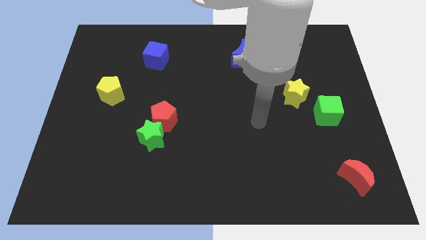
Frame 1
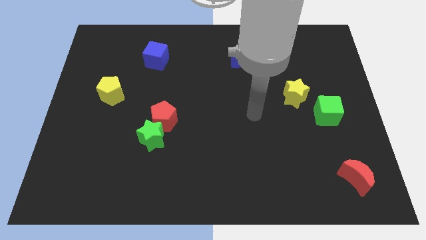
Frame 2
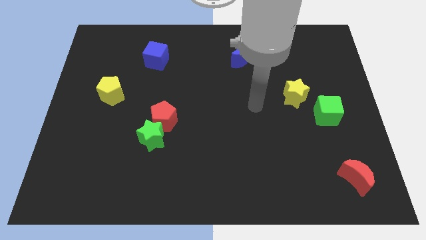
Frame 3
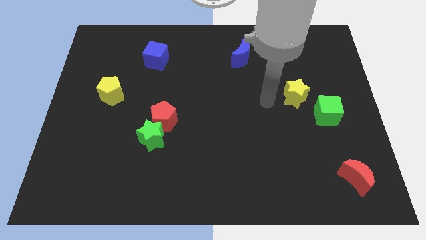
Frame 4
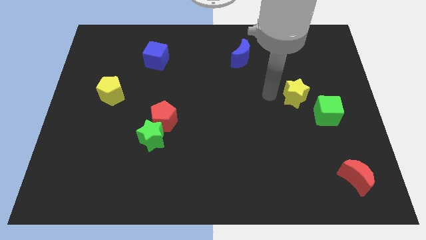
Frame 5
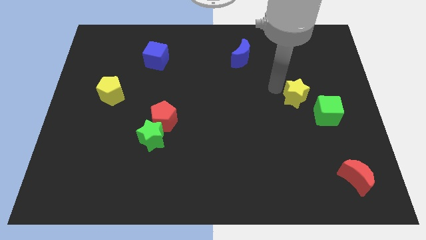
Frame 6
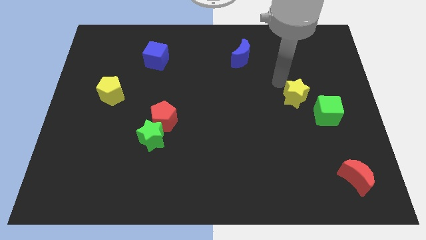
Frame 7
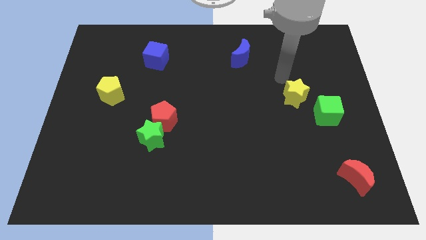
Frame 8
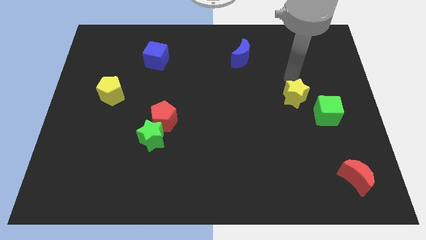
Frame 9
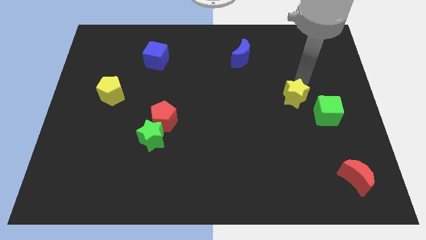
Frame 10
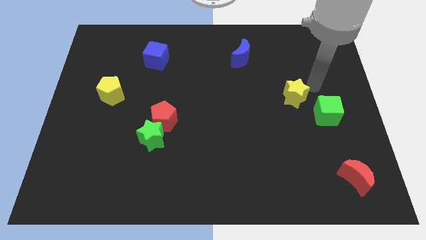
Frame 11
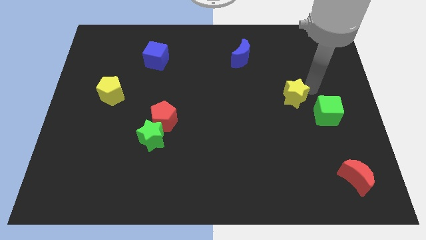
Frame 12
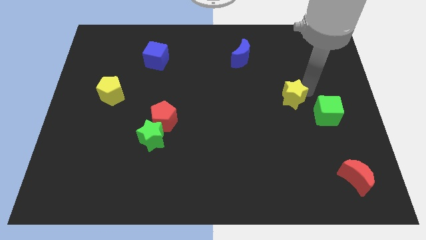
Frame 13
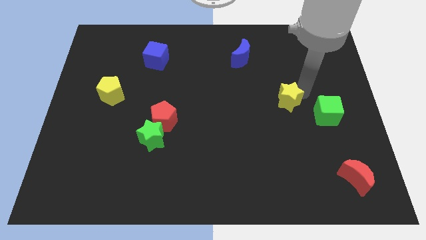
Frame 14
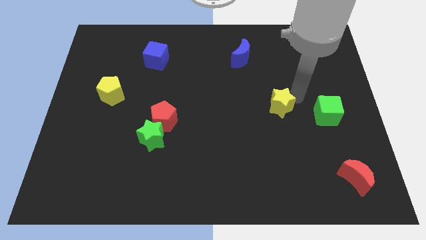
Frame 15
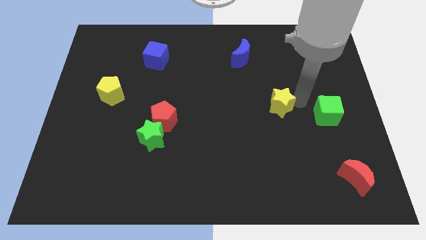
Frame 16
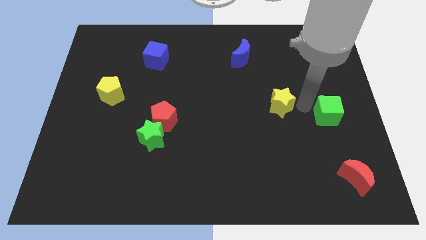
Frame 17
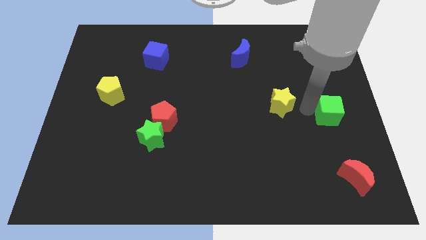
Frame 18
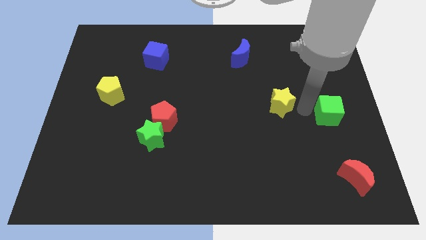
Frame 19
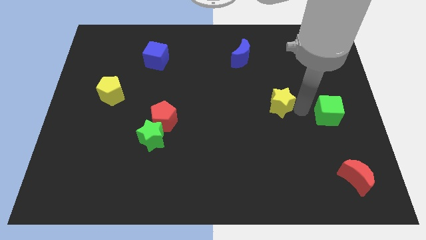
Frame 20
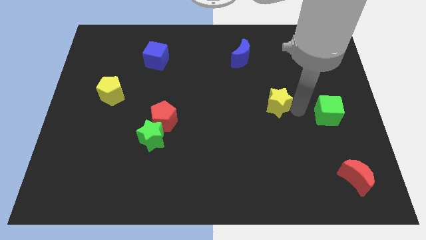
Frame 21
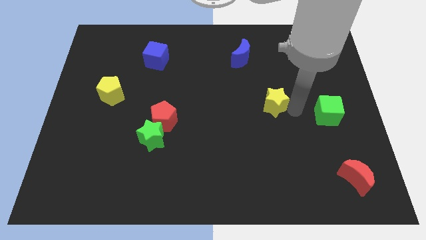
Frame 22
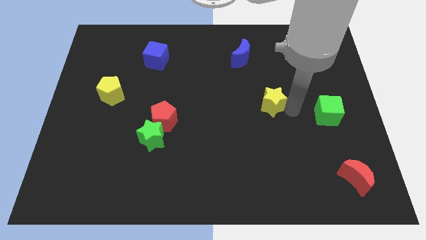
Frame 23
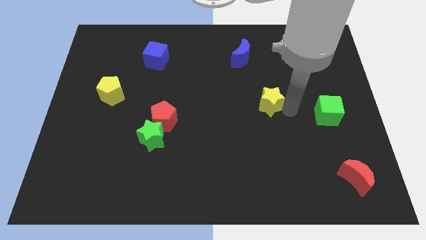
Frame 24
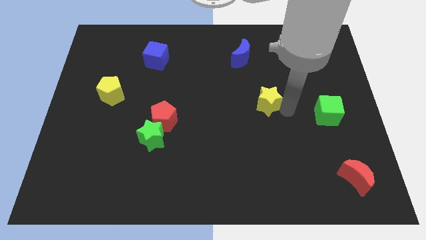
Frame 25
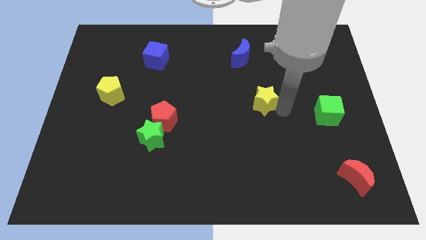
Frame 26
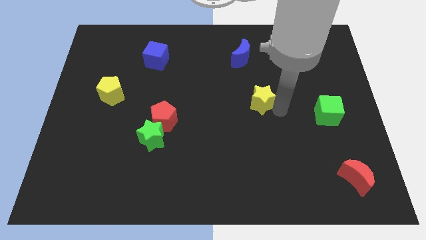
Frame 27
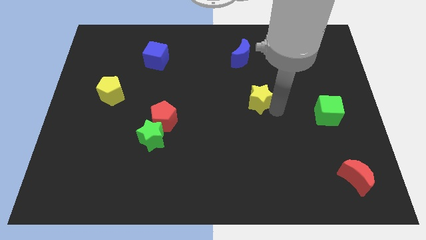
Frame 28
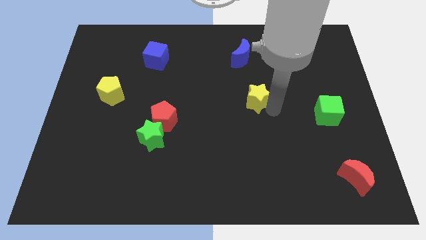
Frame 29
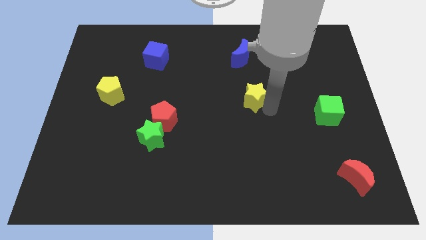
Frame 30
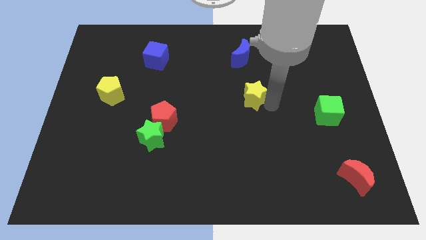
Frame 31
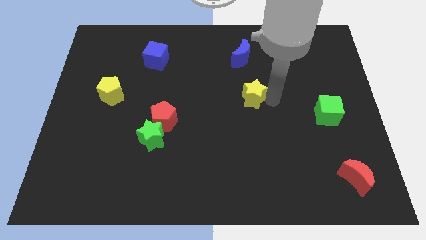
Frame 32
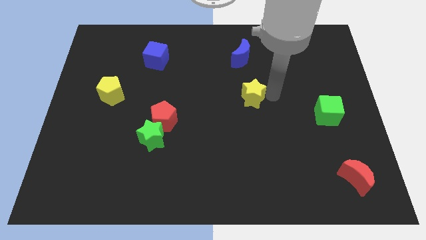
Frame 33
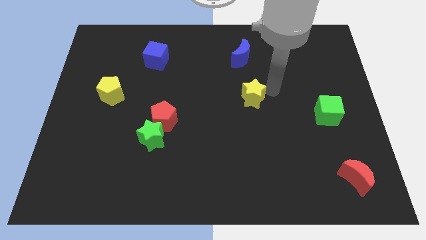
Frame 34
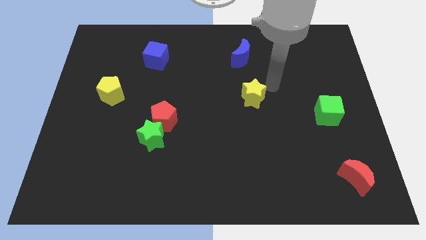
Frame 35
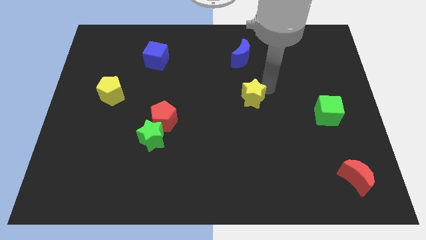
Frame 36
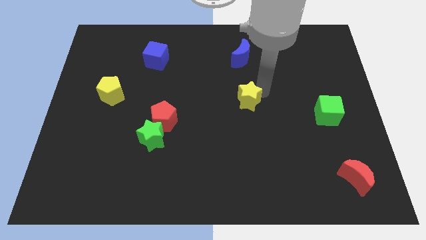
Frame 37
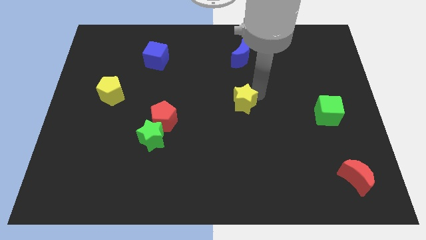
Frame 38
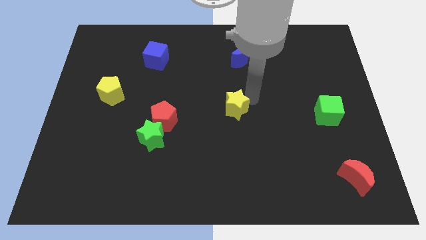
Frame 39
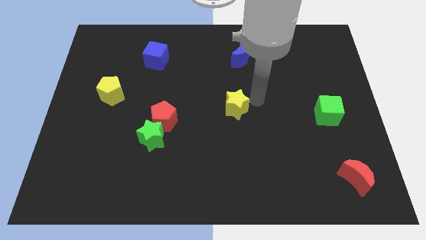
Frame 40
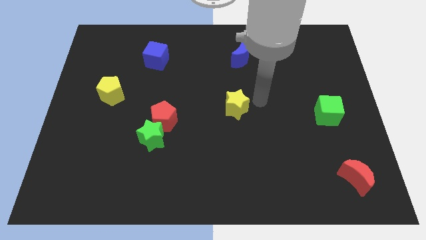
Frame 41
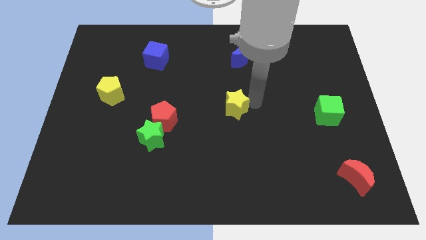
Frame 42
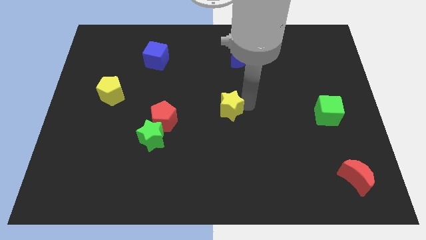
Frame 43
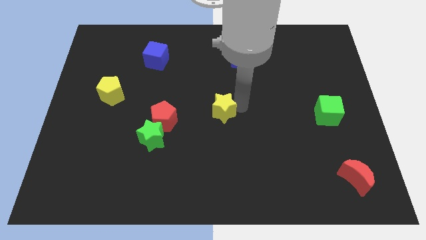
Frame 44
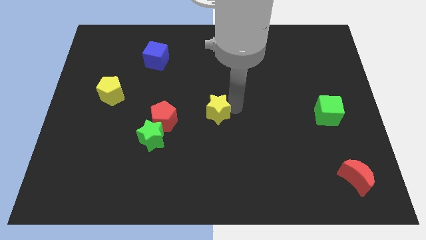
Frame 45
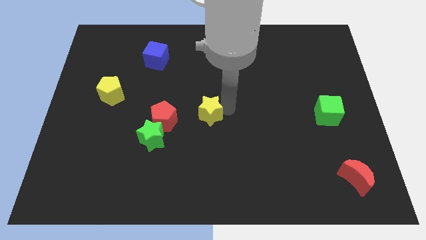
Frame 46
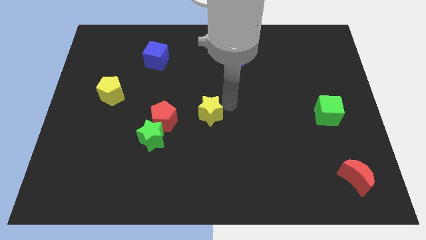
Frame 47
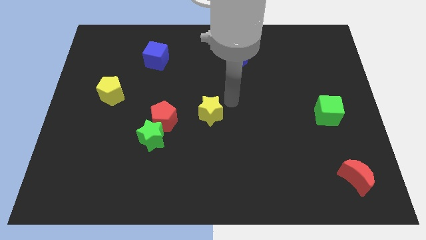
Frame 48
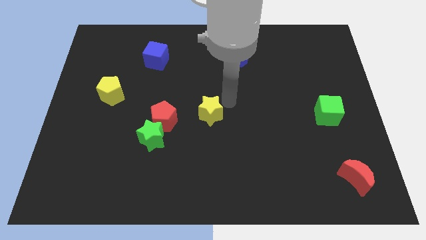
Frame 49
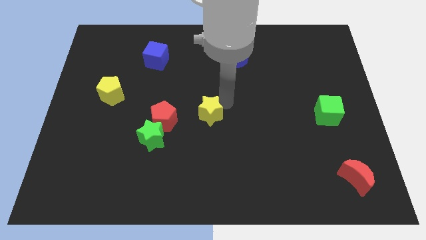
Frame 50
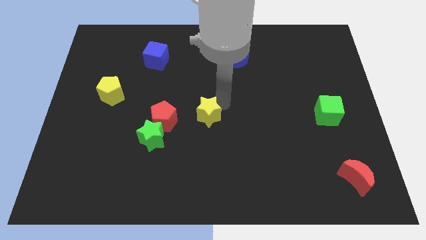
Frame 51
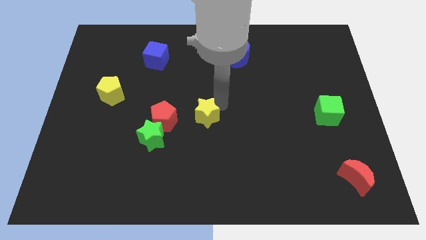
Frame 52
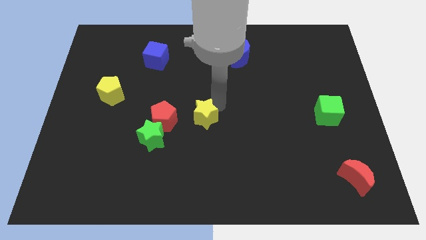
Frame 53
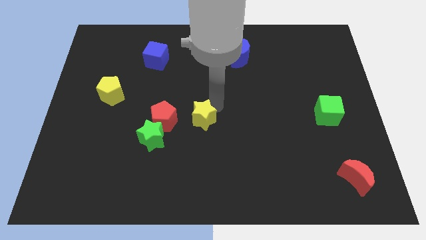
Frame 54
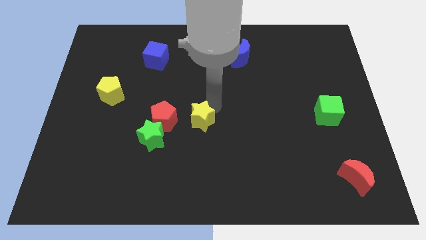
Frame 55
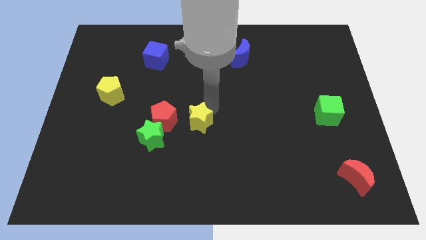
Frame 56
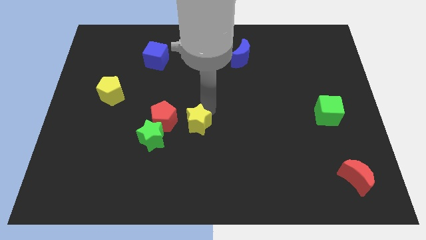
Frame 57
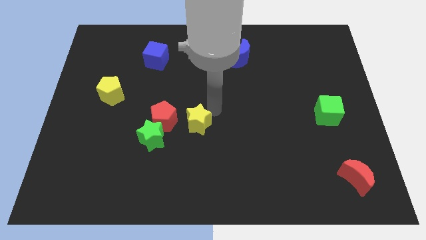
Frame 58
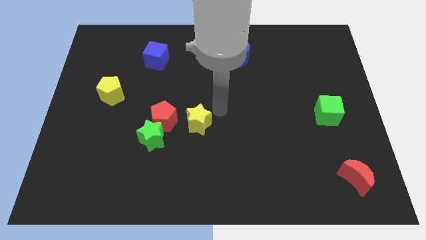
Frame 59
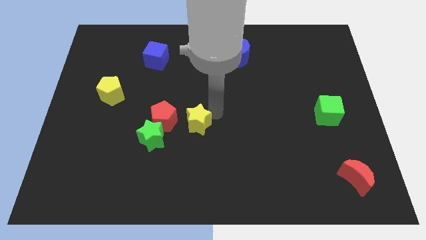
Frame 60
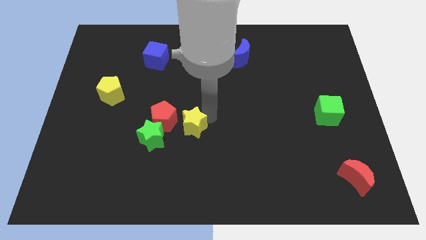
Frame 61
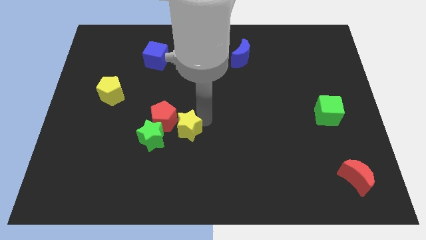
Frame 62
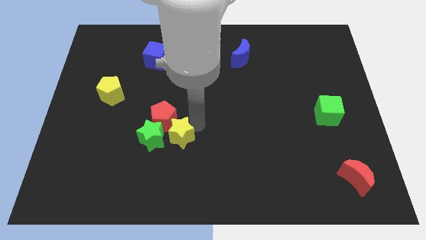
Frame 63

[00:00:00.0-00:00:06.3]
slide the yellow star towards the green star

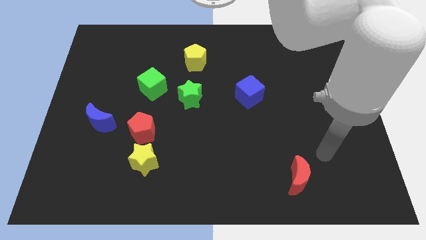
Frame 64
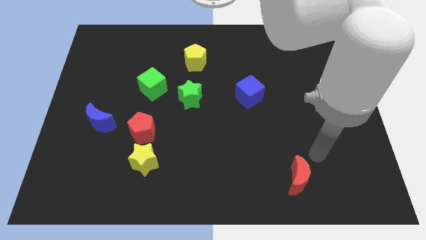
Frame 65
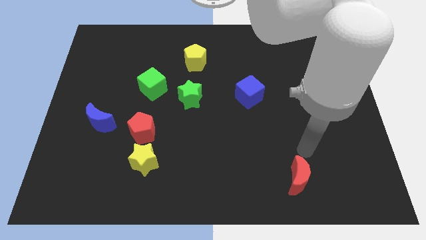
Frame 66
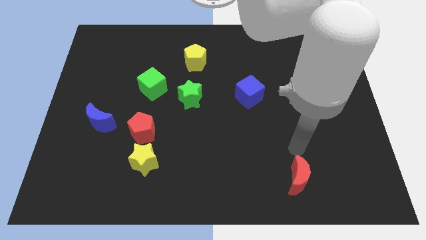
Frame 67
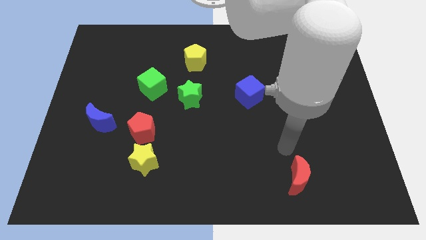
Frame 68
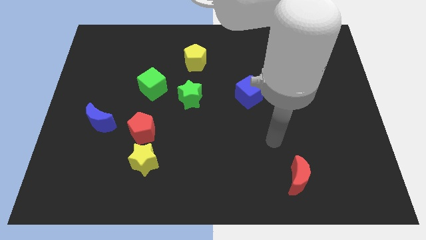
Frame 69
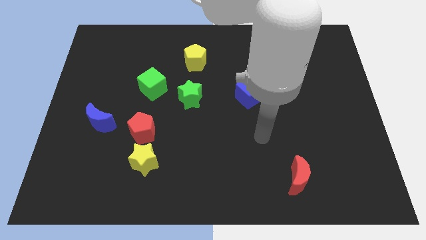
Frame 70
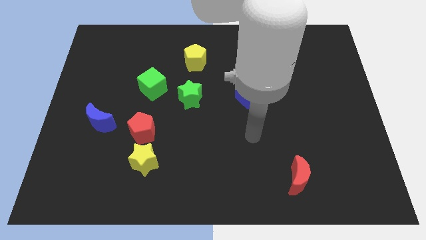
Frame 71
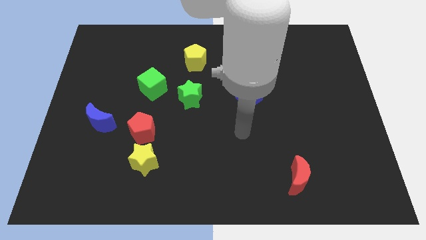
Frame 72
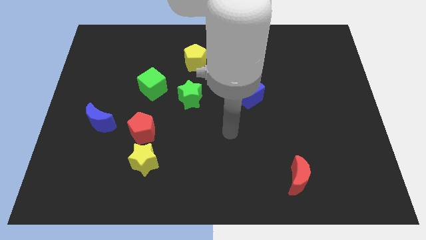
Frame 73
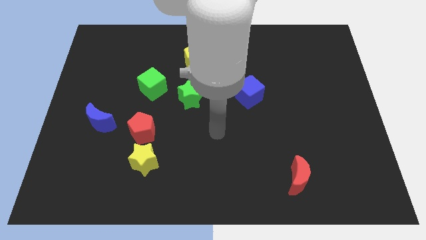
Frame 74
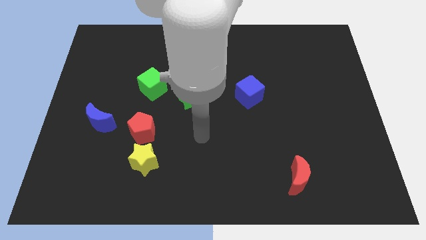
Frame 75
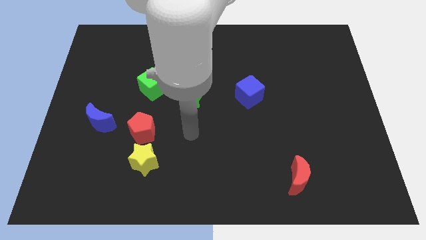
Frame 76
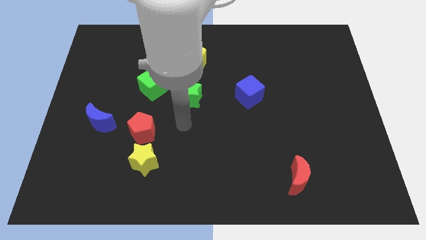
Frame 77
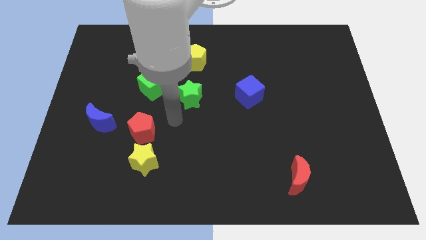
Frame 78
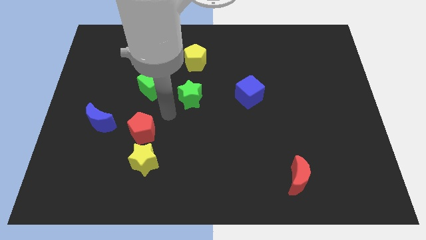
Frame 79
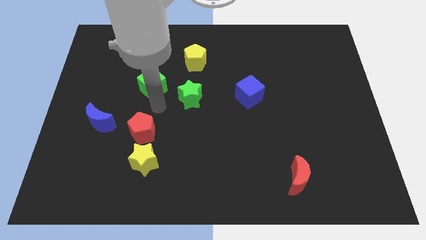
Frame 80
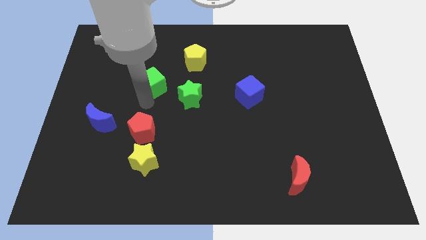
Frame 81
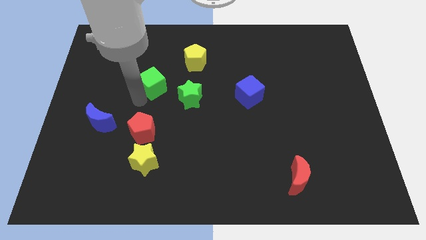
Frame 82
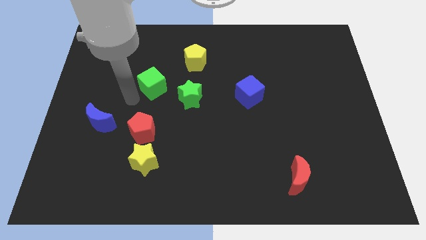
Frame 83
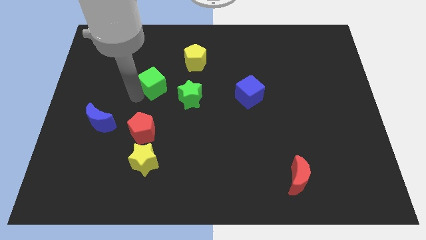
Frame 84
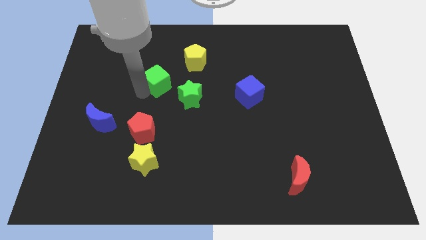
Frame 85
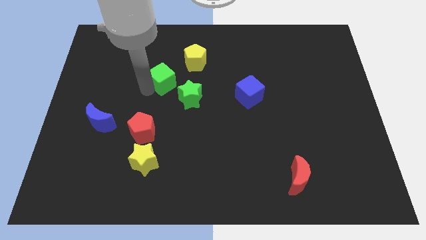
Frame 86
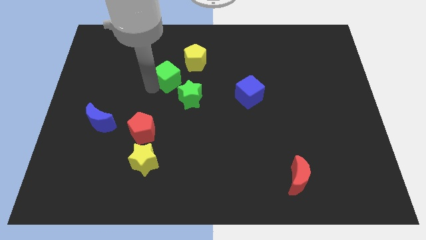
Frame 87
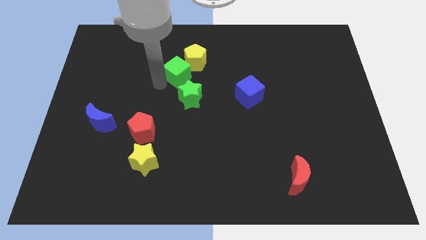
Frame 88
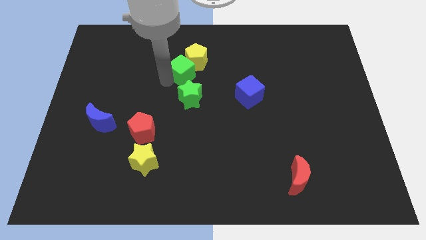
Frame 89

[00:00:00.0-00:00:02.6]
move the green cube to the yellow pentagon
